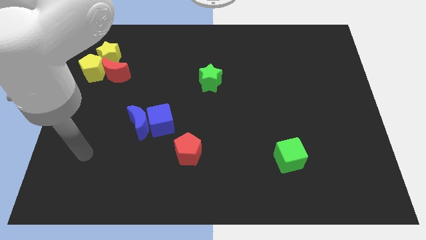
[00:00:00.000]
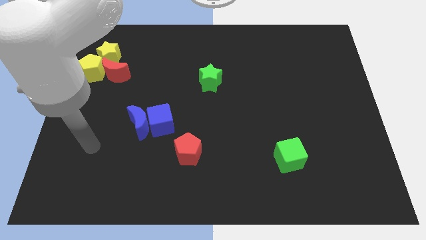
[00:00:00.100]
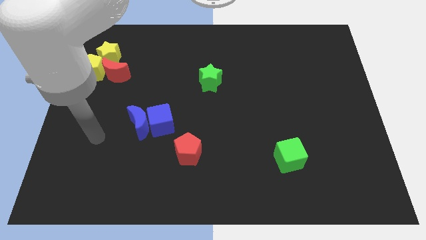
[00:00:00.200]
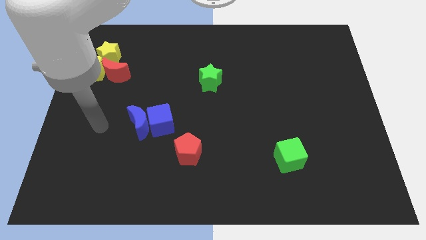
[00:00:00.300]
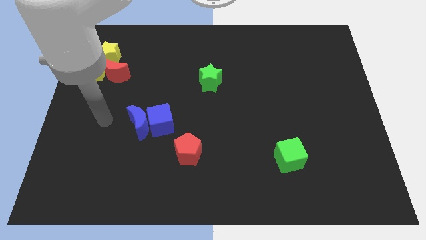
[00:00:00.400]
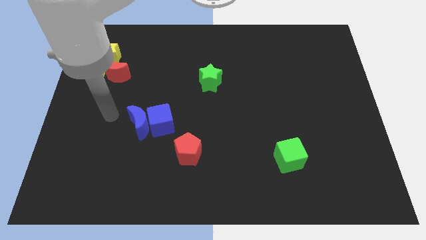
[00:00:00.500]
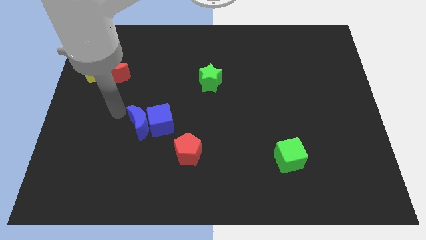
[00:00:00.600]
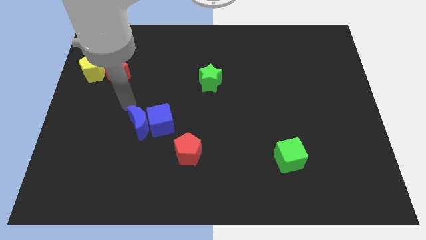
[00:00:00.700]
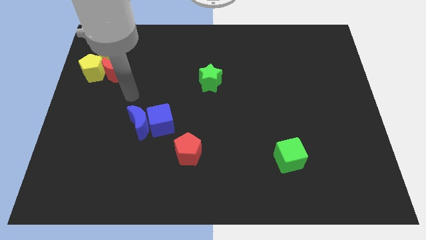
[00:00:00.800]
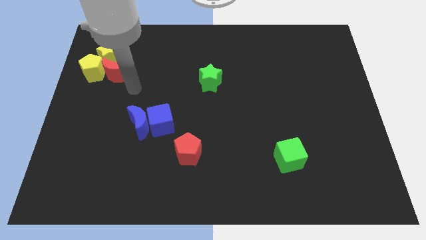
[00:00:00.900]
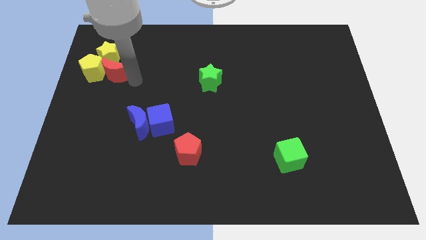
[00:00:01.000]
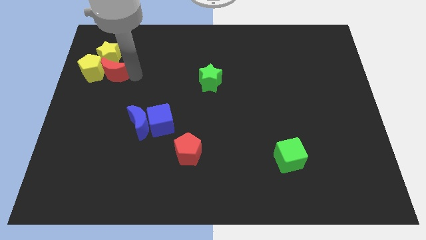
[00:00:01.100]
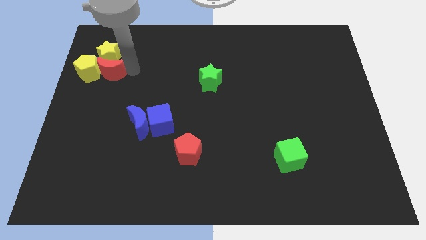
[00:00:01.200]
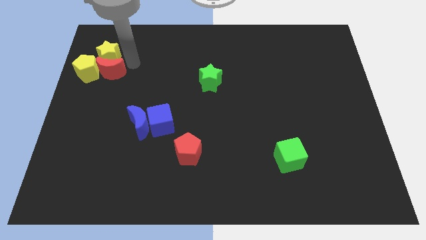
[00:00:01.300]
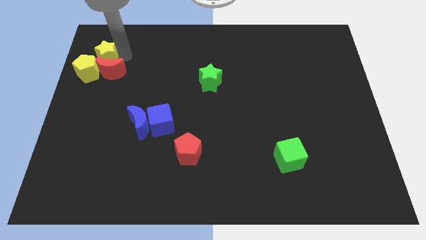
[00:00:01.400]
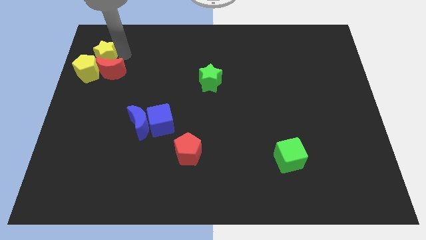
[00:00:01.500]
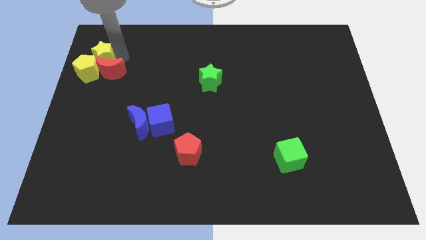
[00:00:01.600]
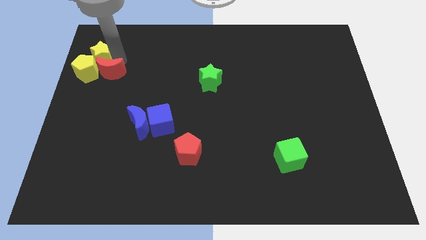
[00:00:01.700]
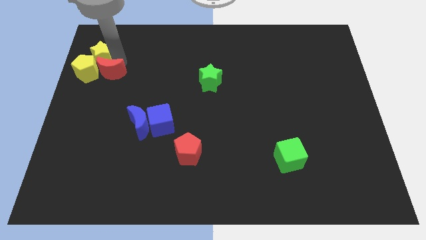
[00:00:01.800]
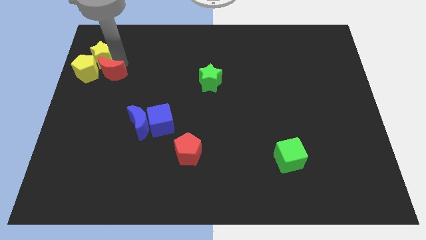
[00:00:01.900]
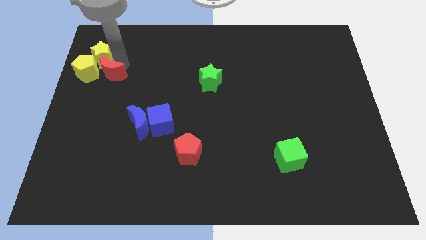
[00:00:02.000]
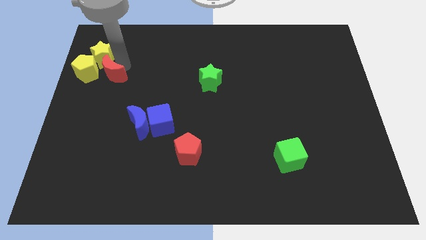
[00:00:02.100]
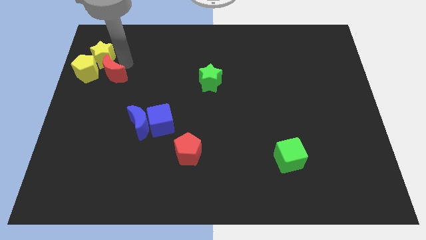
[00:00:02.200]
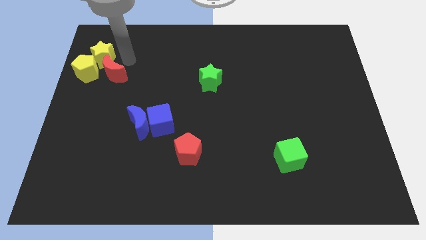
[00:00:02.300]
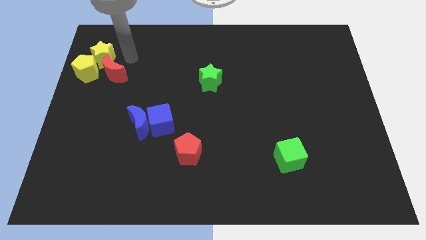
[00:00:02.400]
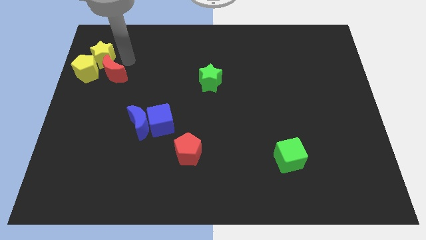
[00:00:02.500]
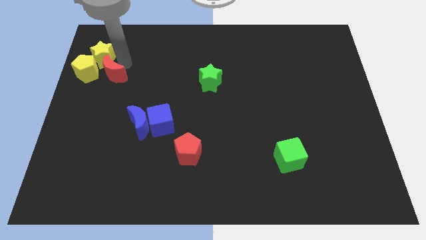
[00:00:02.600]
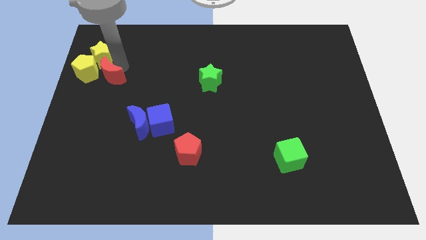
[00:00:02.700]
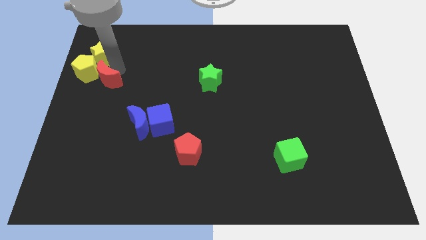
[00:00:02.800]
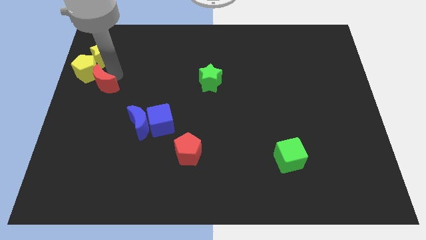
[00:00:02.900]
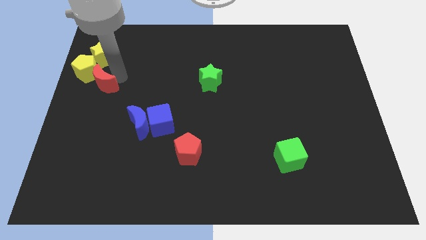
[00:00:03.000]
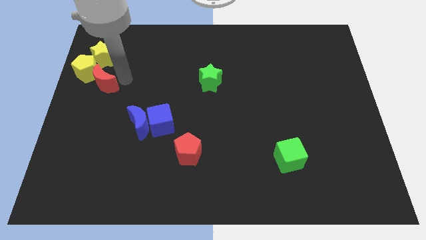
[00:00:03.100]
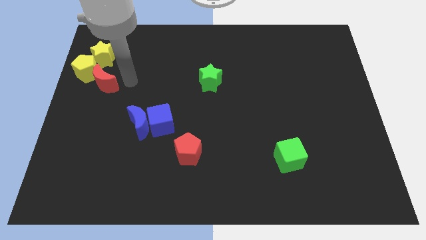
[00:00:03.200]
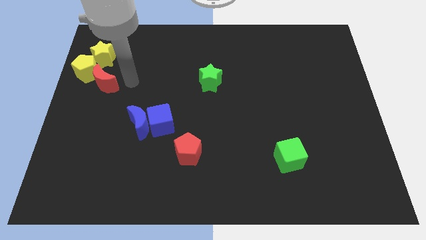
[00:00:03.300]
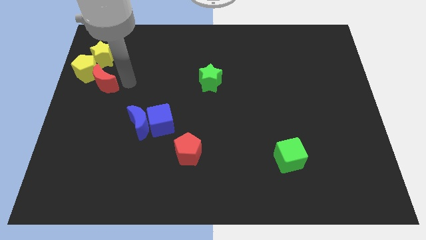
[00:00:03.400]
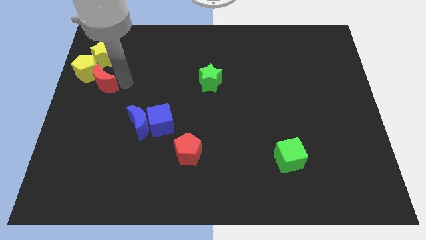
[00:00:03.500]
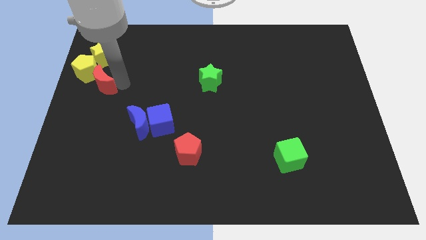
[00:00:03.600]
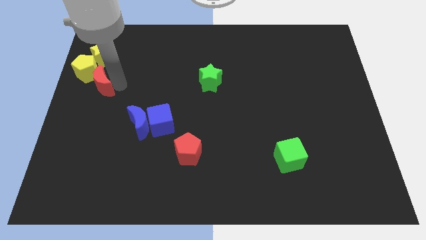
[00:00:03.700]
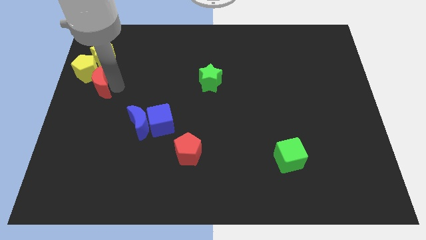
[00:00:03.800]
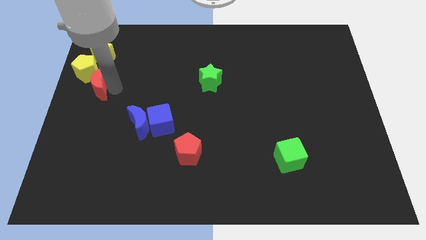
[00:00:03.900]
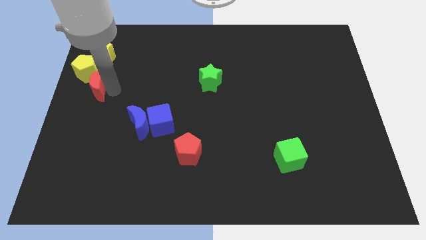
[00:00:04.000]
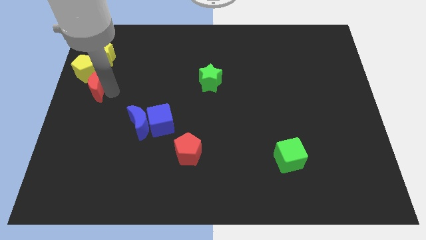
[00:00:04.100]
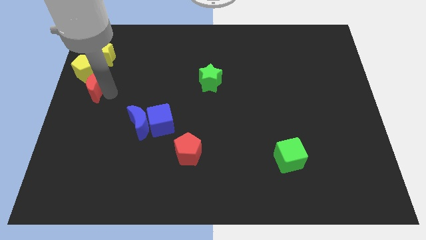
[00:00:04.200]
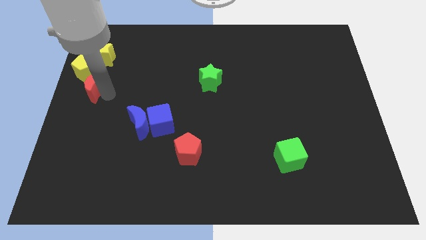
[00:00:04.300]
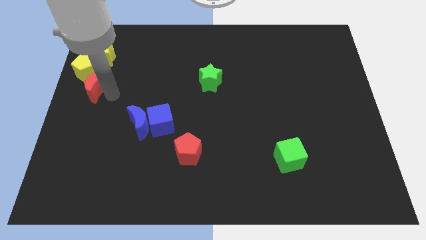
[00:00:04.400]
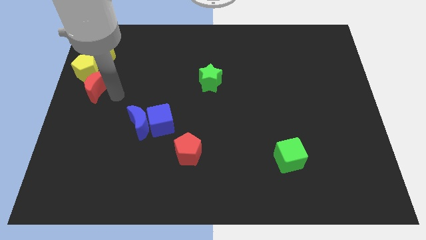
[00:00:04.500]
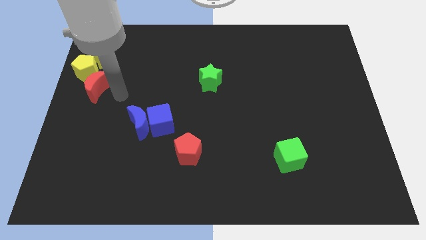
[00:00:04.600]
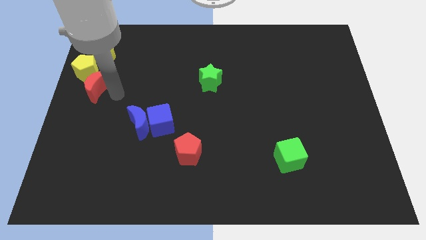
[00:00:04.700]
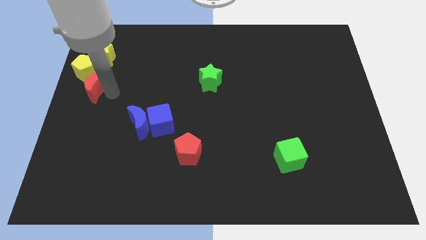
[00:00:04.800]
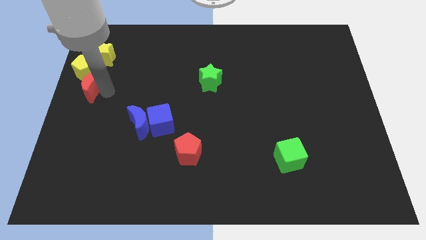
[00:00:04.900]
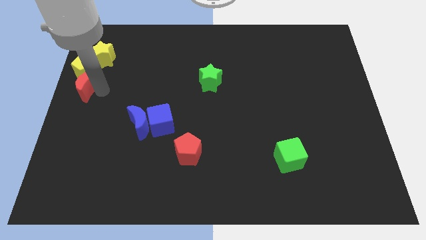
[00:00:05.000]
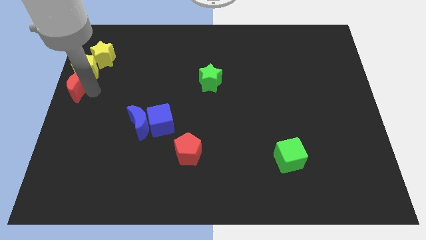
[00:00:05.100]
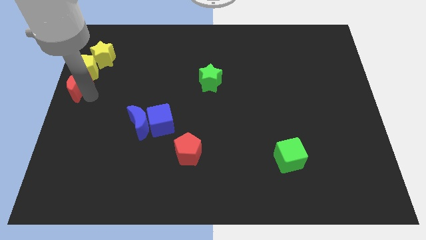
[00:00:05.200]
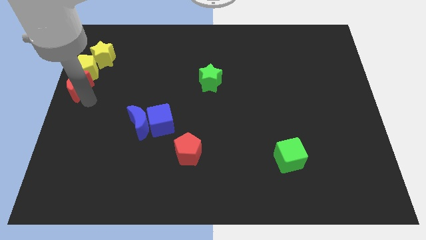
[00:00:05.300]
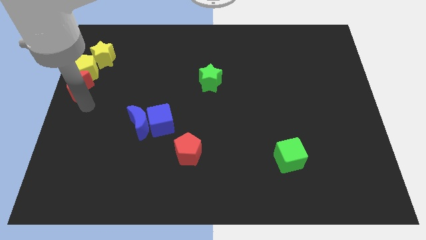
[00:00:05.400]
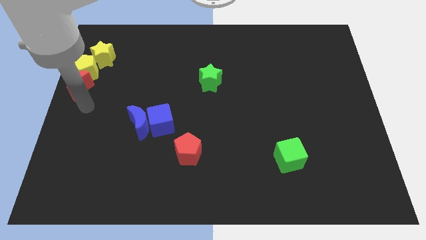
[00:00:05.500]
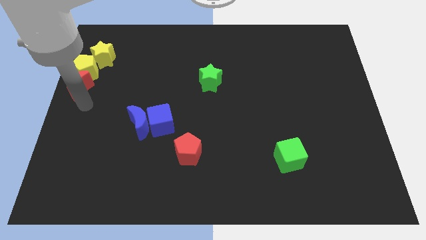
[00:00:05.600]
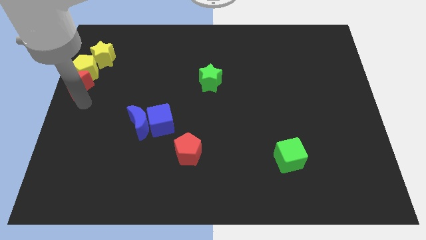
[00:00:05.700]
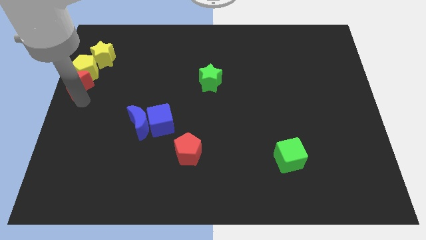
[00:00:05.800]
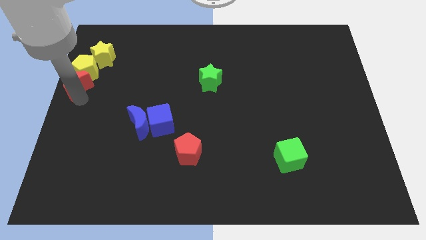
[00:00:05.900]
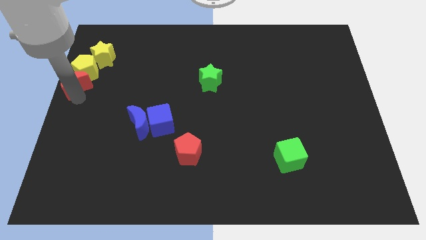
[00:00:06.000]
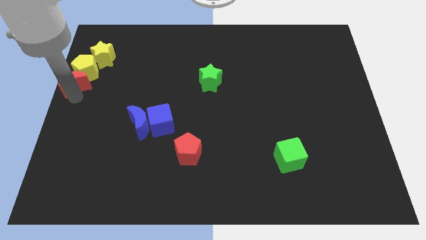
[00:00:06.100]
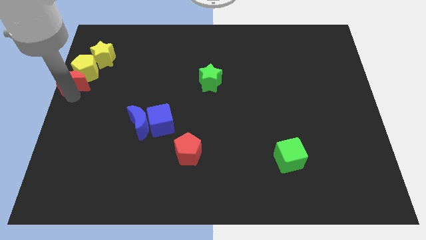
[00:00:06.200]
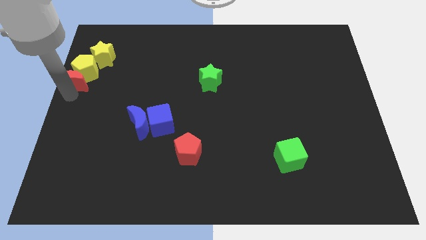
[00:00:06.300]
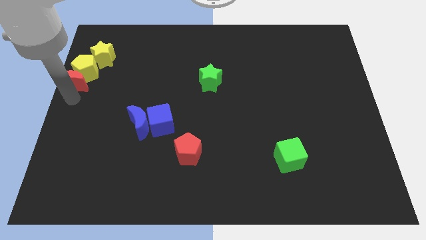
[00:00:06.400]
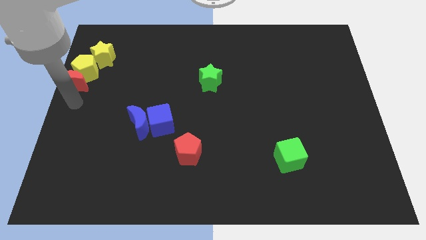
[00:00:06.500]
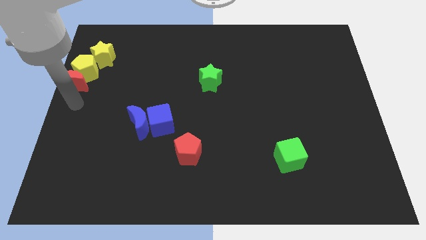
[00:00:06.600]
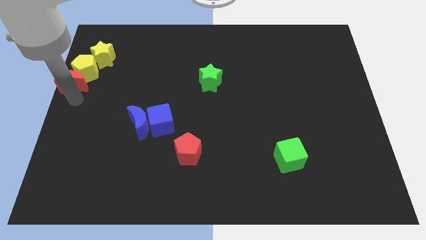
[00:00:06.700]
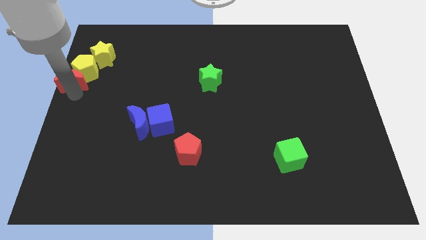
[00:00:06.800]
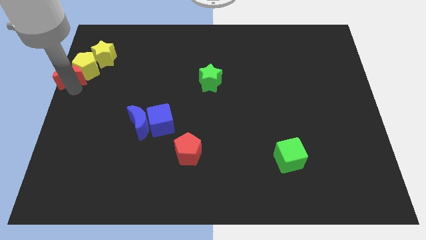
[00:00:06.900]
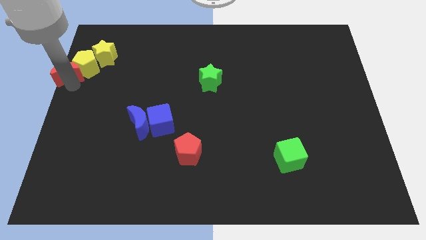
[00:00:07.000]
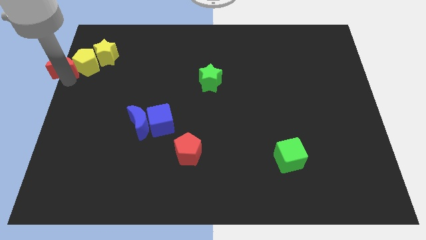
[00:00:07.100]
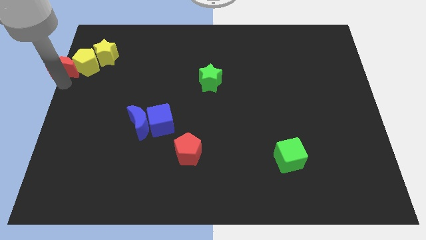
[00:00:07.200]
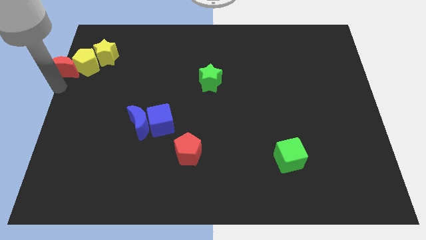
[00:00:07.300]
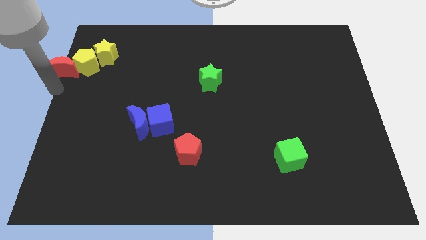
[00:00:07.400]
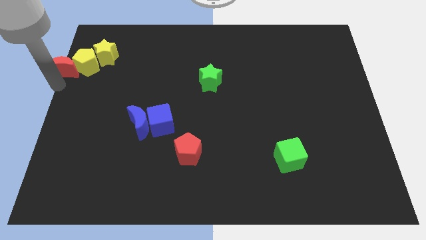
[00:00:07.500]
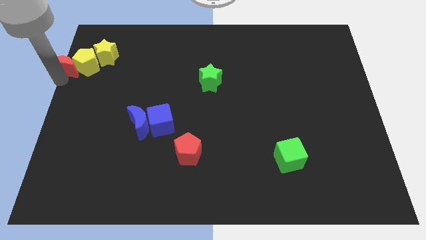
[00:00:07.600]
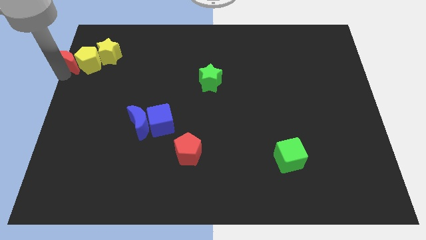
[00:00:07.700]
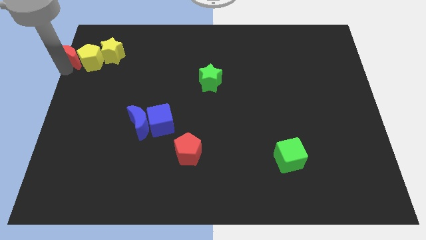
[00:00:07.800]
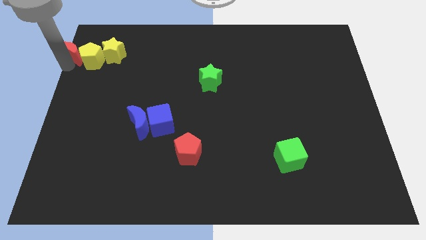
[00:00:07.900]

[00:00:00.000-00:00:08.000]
move the red moon to the top left
